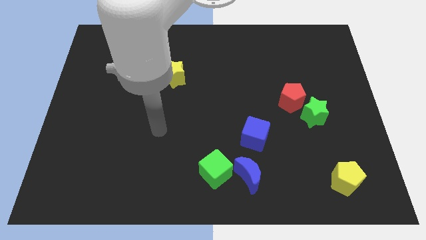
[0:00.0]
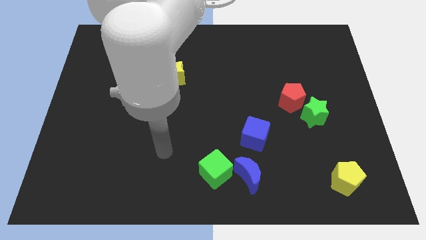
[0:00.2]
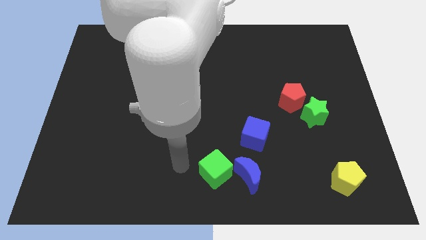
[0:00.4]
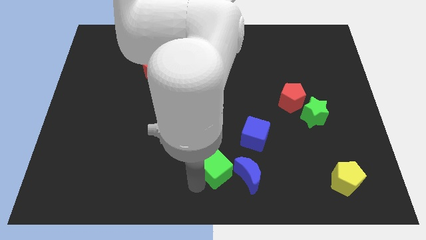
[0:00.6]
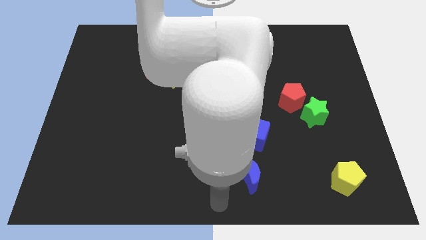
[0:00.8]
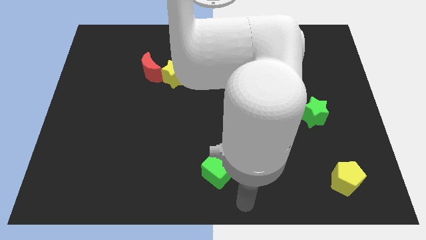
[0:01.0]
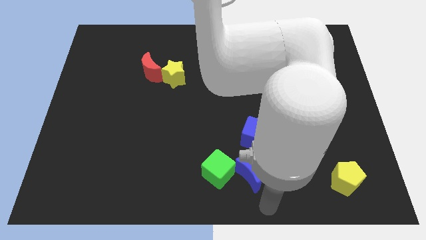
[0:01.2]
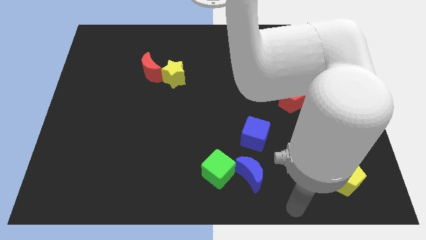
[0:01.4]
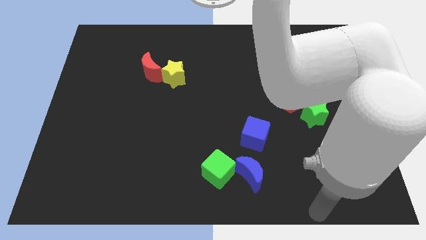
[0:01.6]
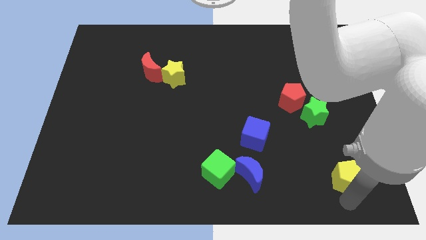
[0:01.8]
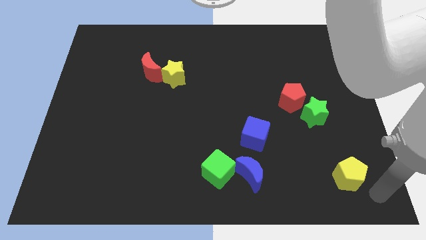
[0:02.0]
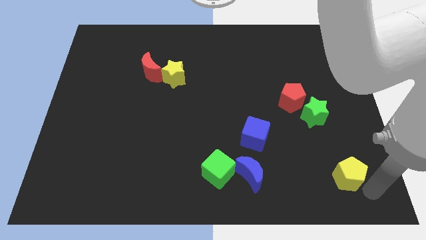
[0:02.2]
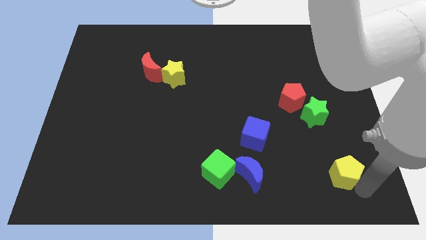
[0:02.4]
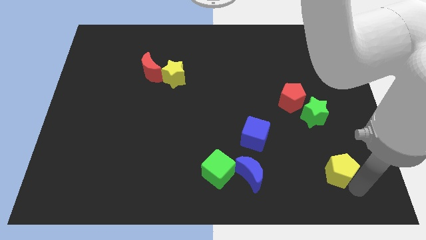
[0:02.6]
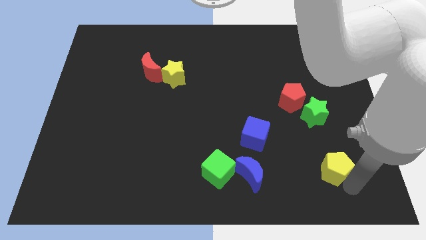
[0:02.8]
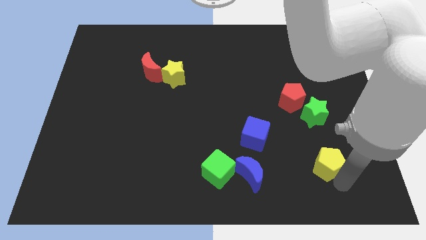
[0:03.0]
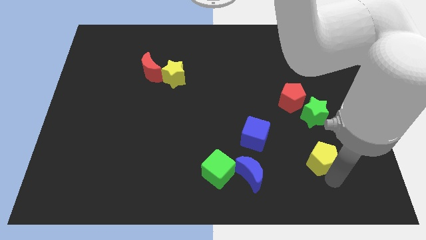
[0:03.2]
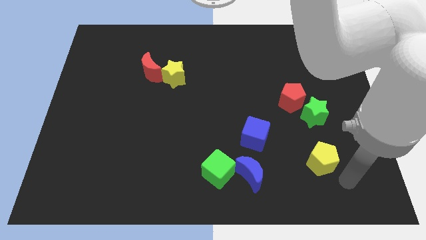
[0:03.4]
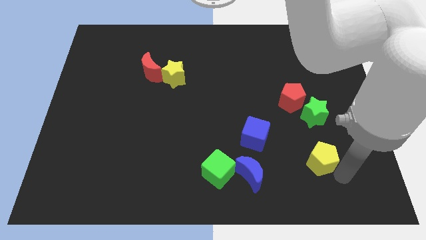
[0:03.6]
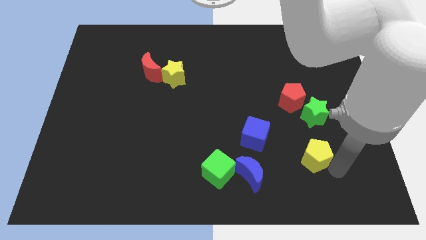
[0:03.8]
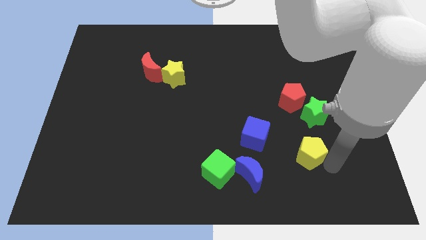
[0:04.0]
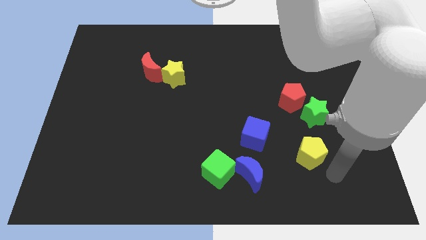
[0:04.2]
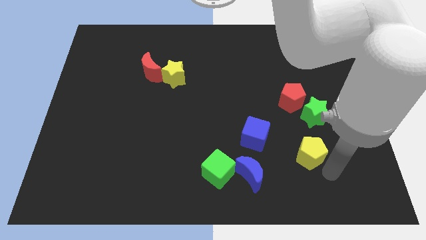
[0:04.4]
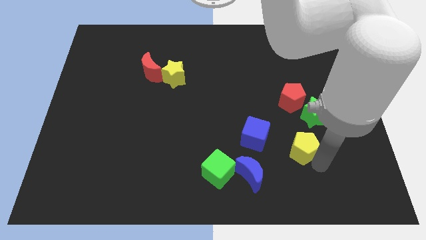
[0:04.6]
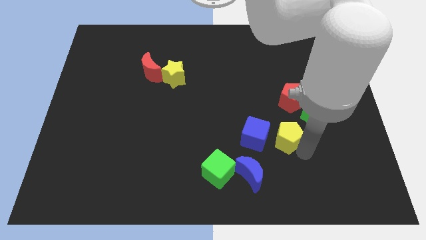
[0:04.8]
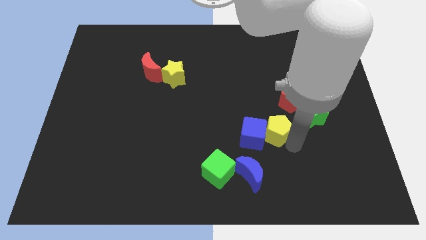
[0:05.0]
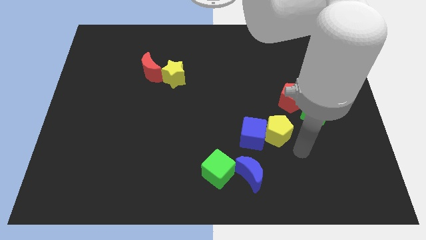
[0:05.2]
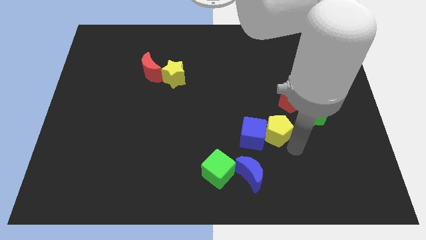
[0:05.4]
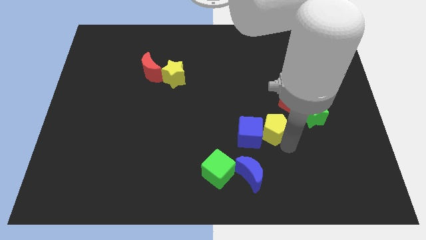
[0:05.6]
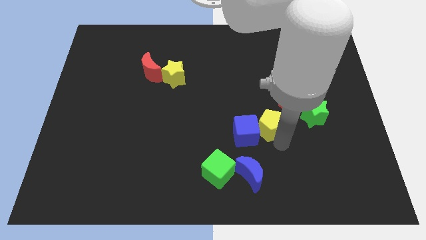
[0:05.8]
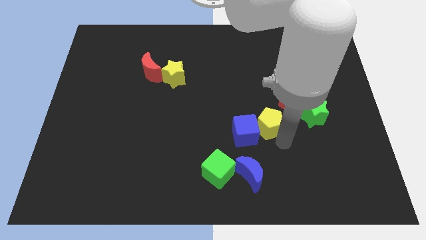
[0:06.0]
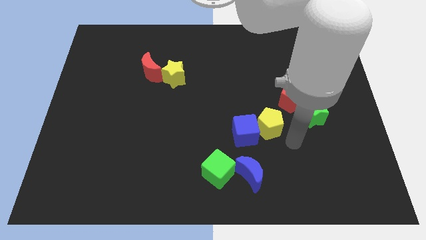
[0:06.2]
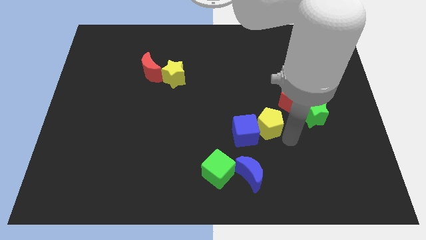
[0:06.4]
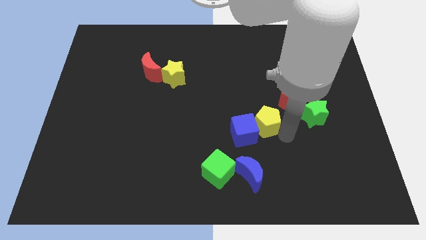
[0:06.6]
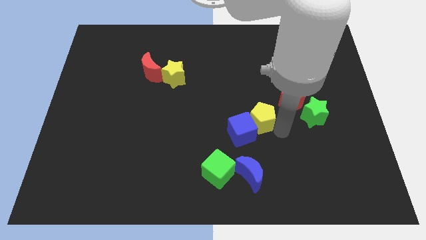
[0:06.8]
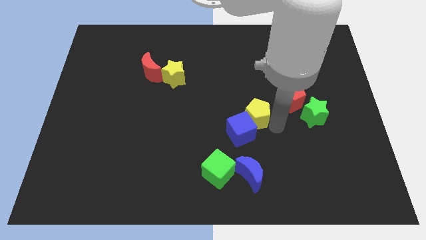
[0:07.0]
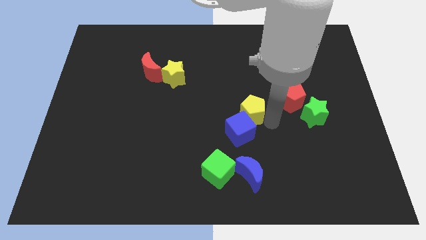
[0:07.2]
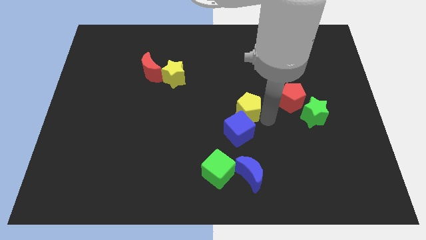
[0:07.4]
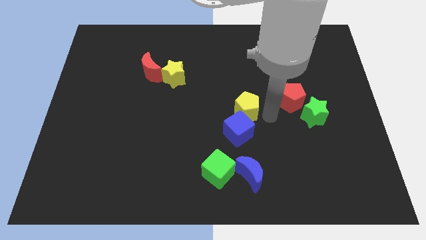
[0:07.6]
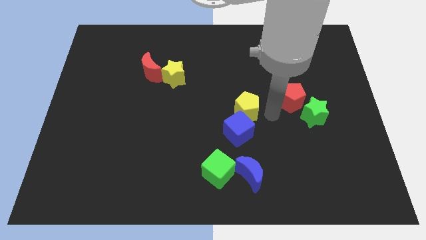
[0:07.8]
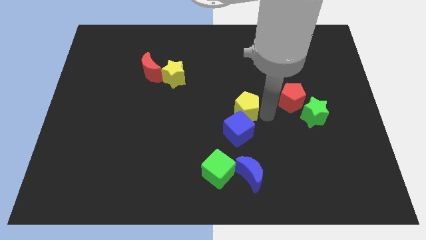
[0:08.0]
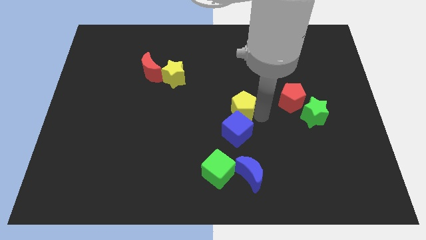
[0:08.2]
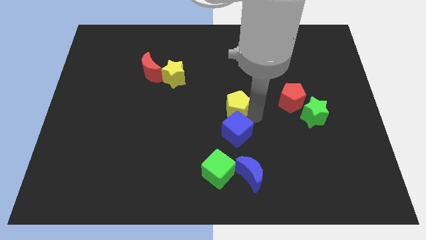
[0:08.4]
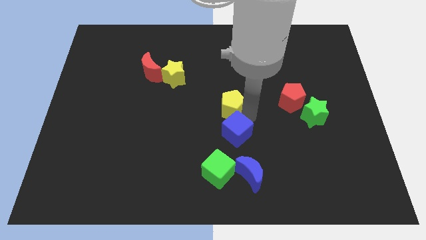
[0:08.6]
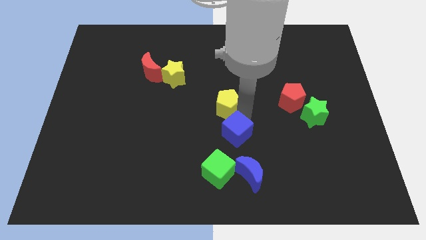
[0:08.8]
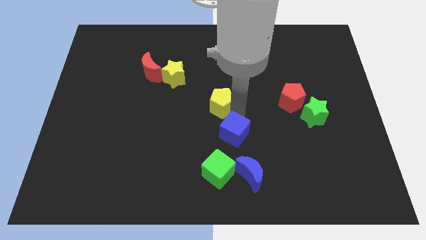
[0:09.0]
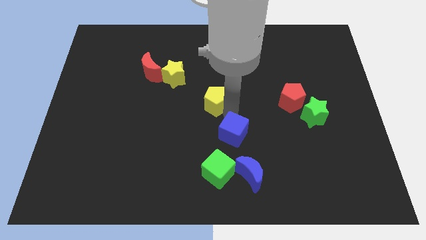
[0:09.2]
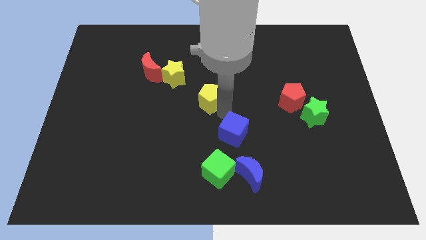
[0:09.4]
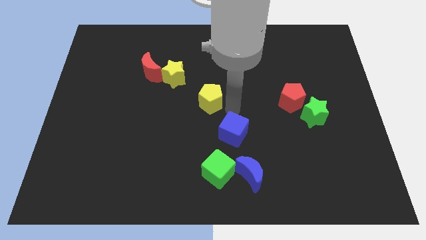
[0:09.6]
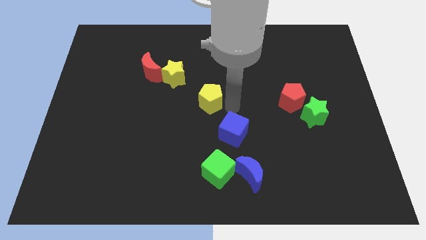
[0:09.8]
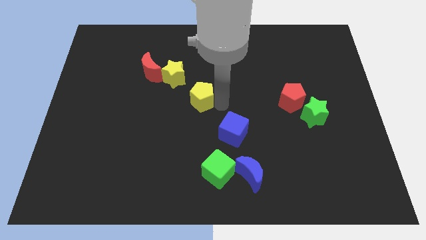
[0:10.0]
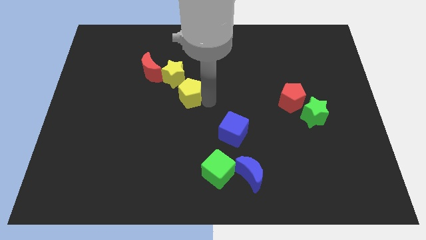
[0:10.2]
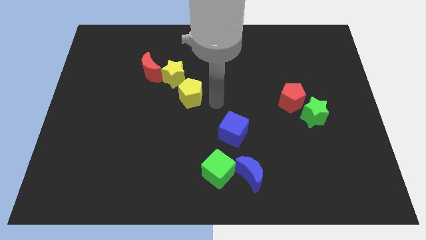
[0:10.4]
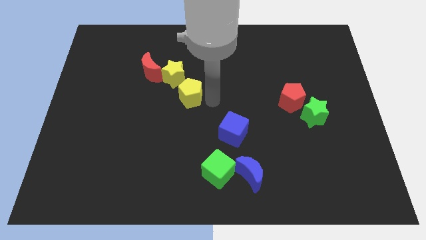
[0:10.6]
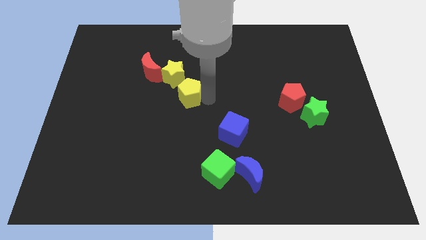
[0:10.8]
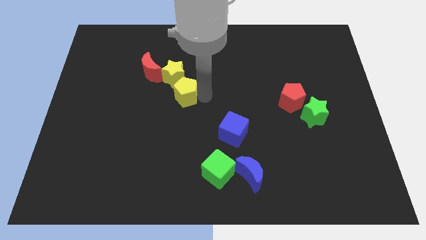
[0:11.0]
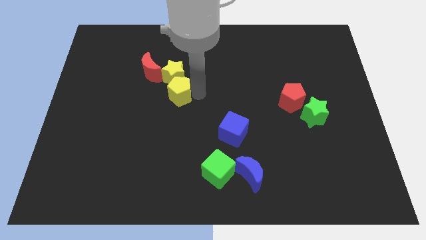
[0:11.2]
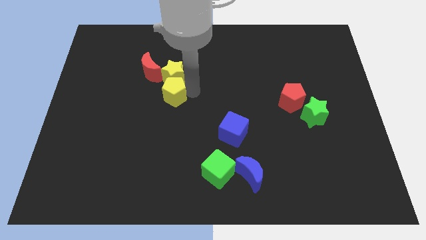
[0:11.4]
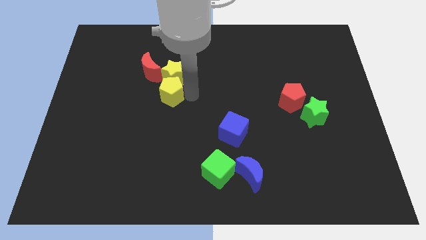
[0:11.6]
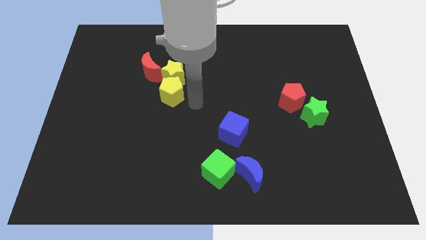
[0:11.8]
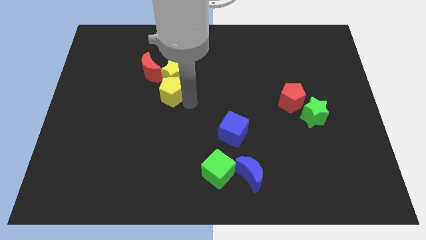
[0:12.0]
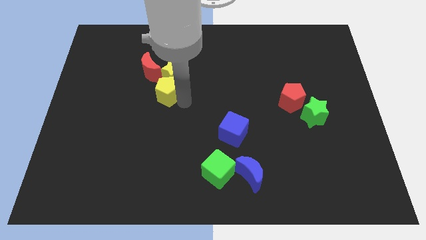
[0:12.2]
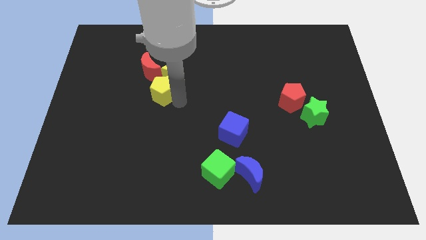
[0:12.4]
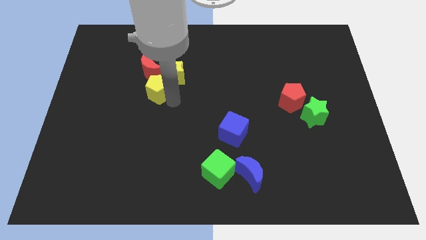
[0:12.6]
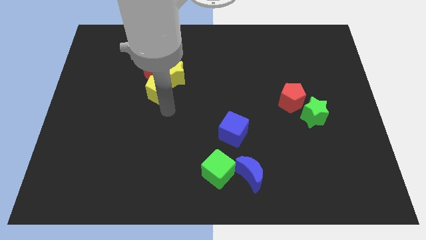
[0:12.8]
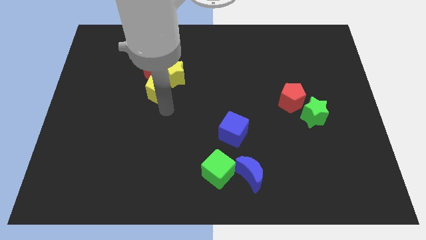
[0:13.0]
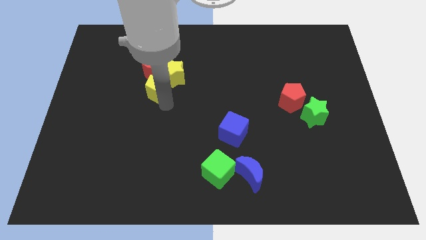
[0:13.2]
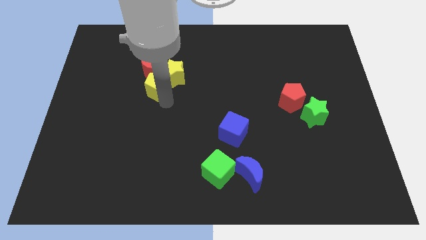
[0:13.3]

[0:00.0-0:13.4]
slide the yellow pentagon towards the red moon
